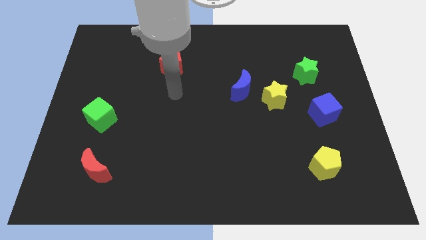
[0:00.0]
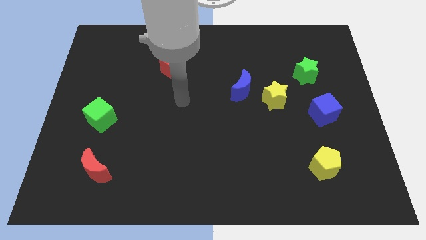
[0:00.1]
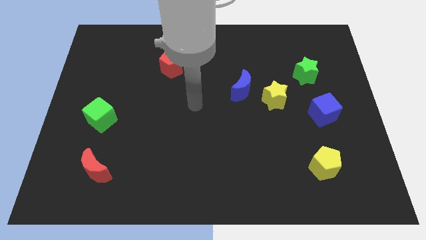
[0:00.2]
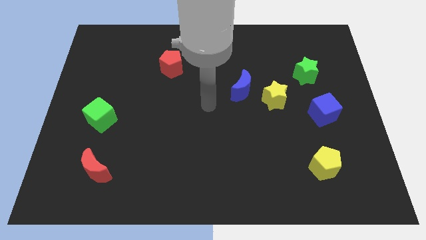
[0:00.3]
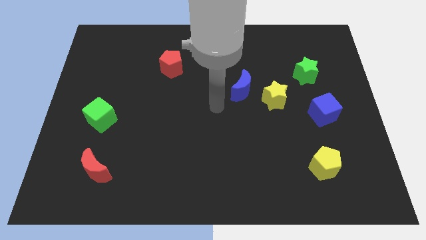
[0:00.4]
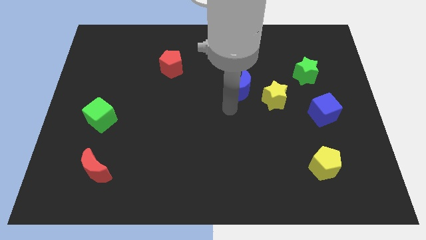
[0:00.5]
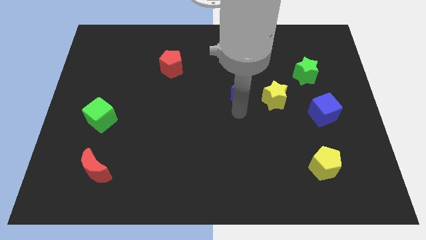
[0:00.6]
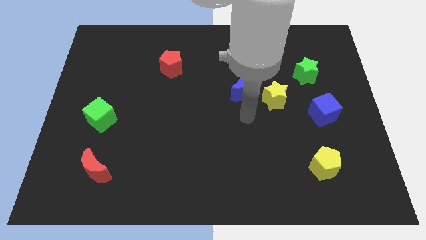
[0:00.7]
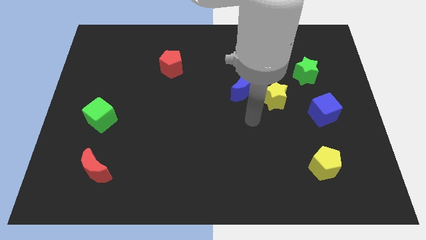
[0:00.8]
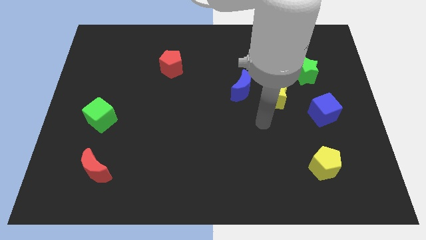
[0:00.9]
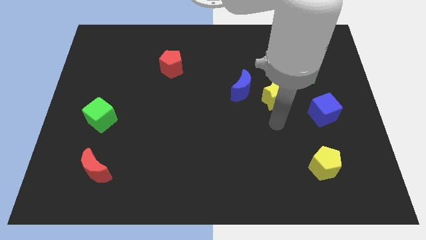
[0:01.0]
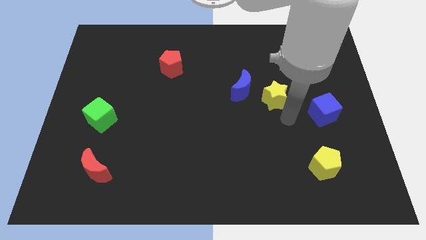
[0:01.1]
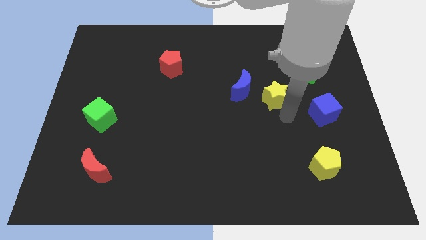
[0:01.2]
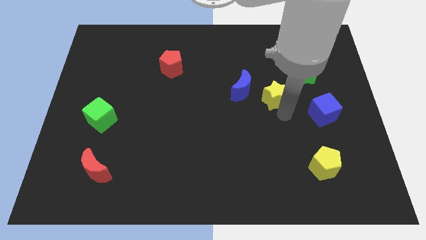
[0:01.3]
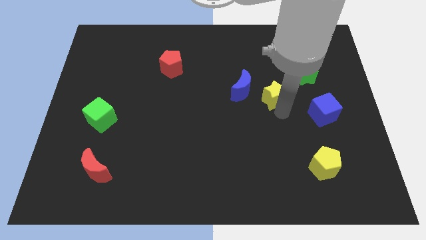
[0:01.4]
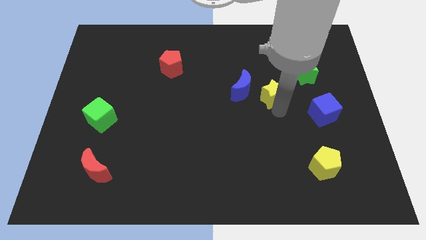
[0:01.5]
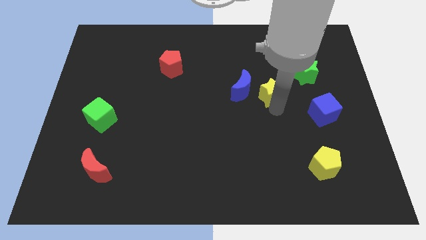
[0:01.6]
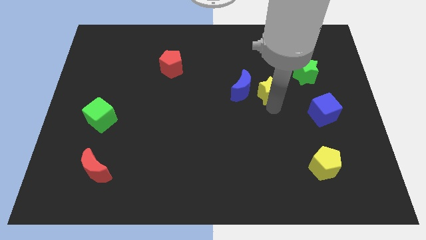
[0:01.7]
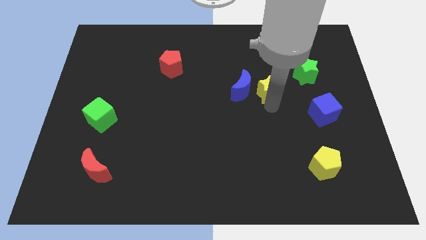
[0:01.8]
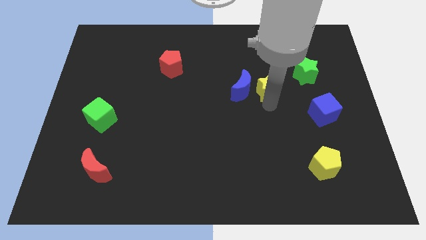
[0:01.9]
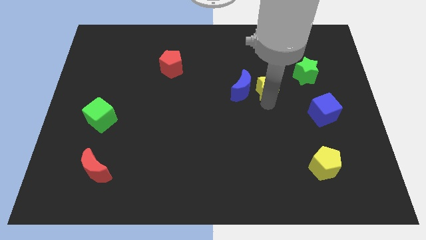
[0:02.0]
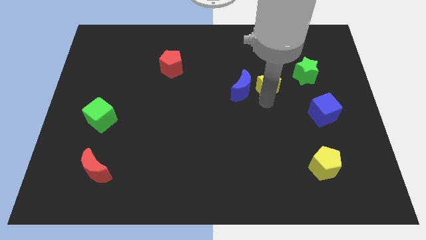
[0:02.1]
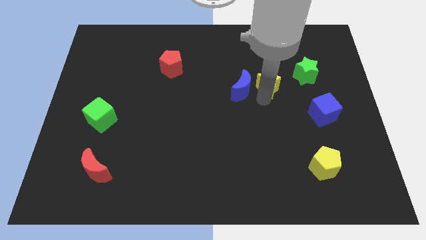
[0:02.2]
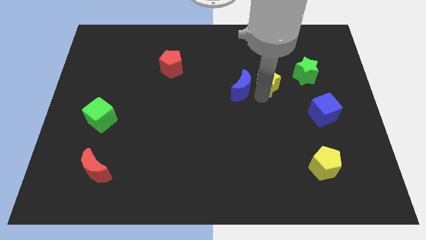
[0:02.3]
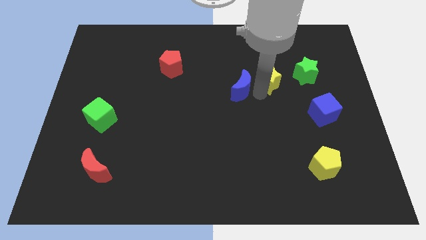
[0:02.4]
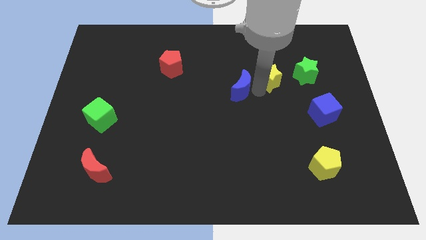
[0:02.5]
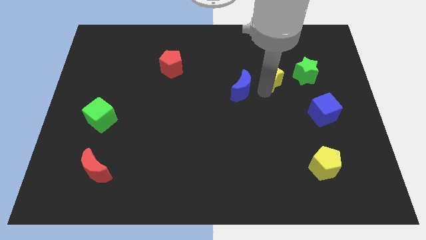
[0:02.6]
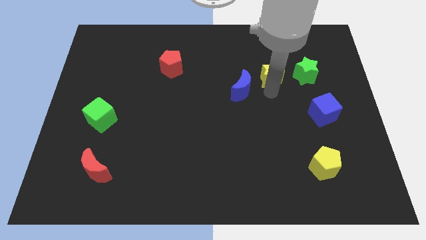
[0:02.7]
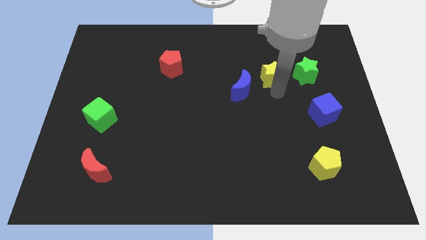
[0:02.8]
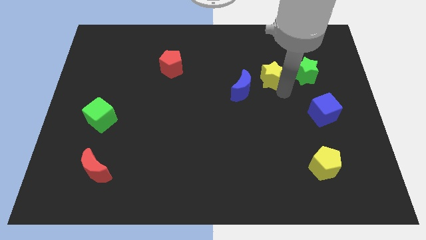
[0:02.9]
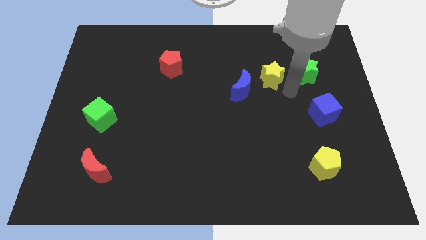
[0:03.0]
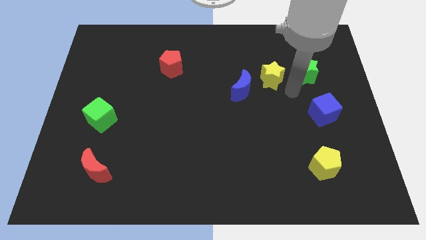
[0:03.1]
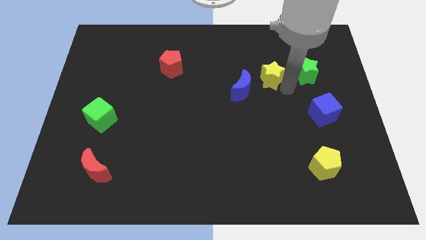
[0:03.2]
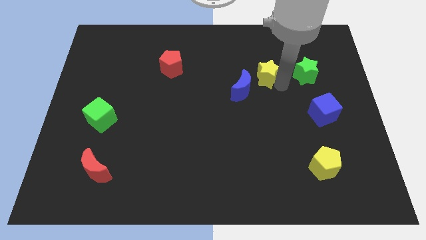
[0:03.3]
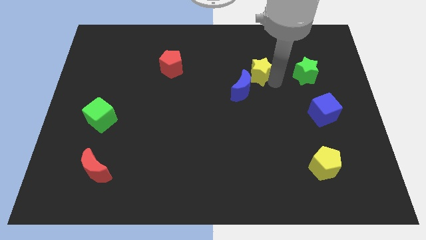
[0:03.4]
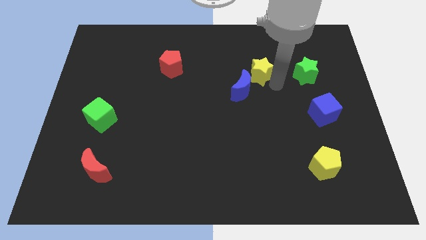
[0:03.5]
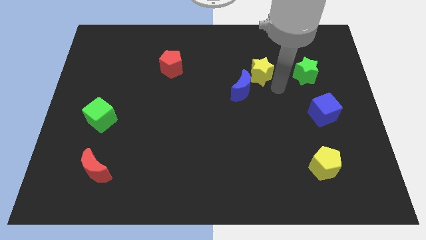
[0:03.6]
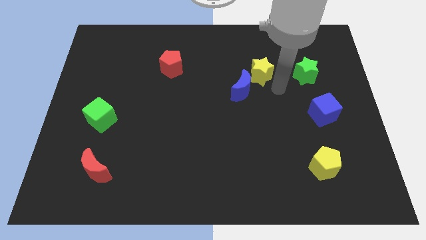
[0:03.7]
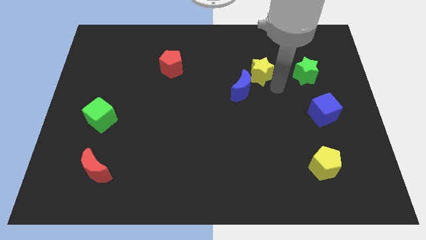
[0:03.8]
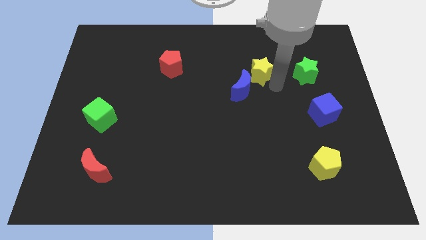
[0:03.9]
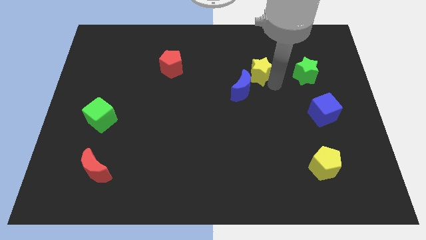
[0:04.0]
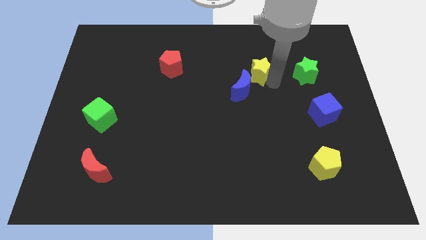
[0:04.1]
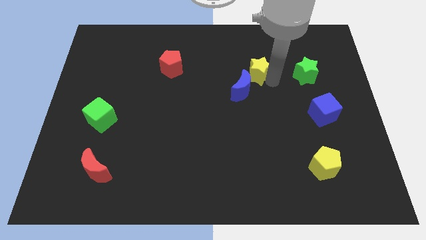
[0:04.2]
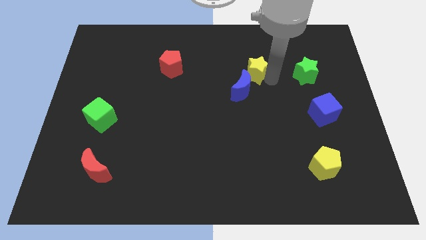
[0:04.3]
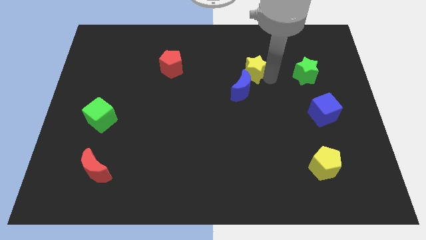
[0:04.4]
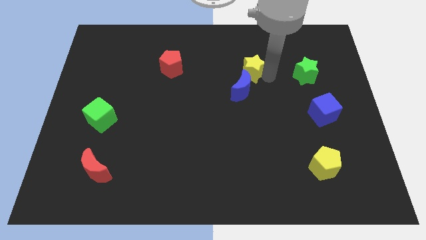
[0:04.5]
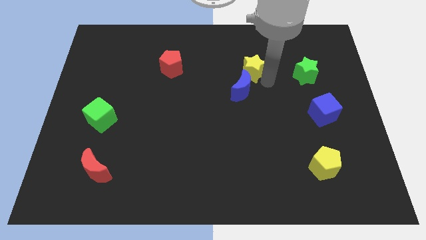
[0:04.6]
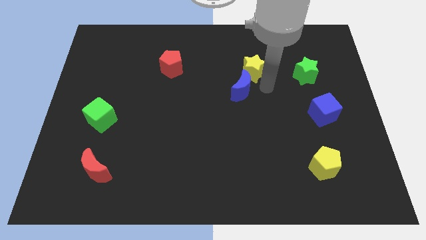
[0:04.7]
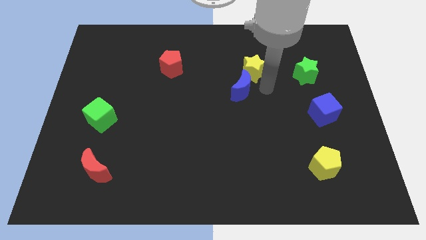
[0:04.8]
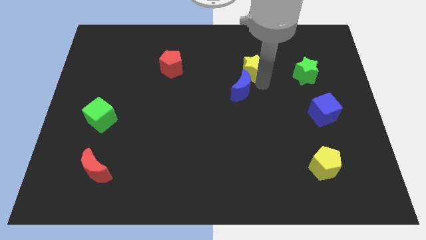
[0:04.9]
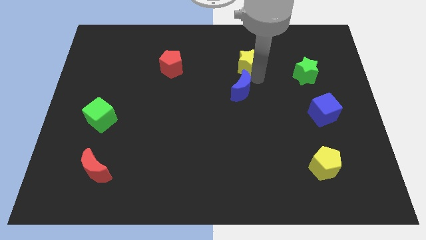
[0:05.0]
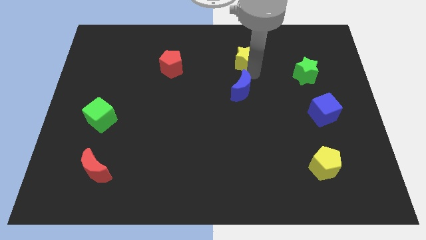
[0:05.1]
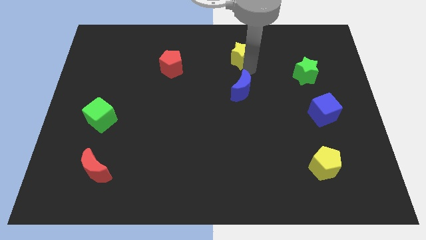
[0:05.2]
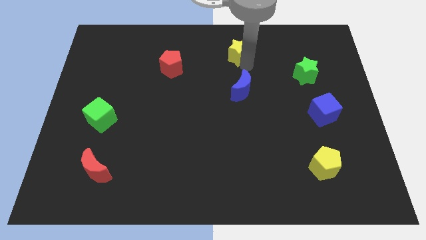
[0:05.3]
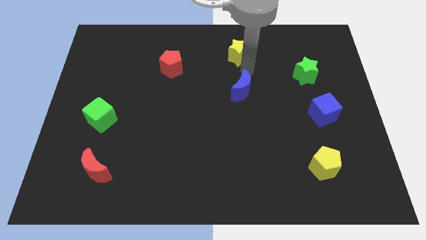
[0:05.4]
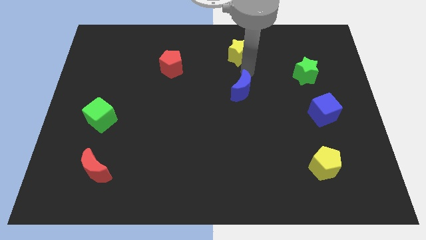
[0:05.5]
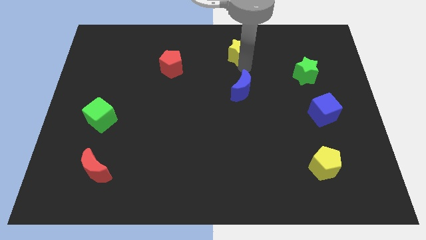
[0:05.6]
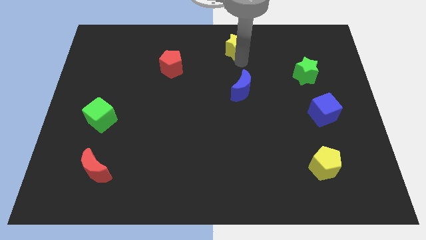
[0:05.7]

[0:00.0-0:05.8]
slide the yellow star to the top side
